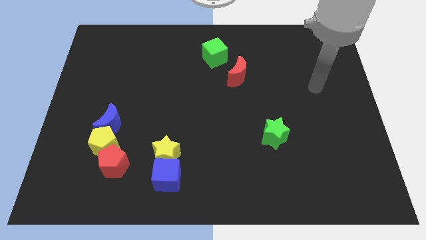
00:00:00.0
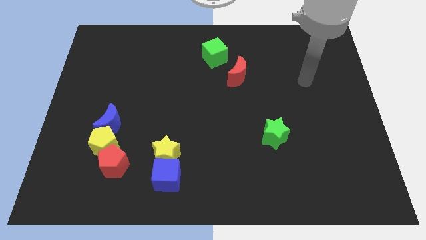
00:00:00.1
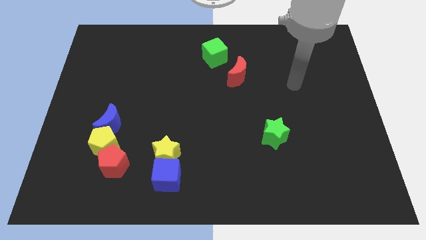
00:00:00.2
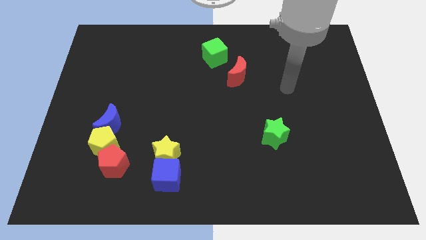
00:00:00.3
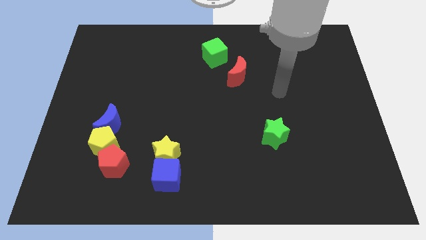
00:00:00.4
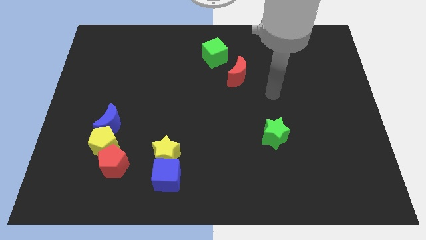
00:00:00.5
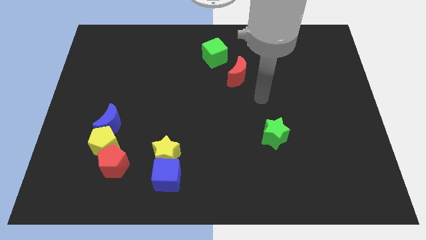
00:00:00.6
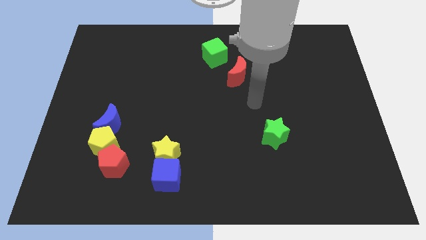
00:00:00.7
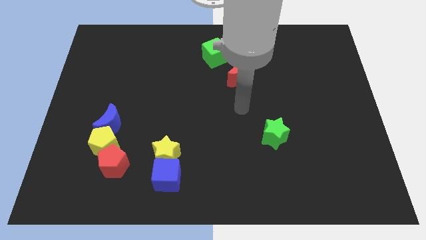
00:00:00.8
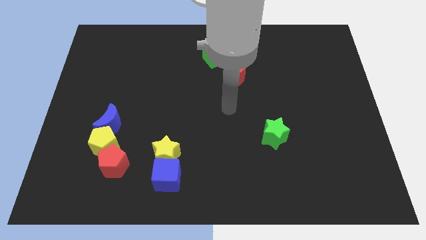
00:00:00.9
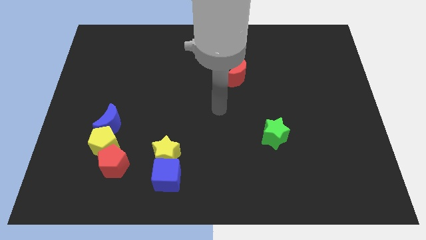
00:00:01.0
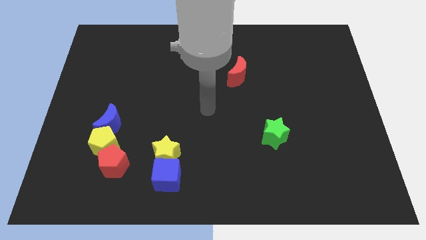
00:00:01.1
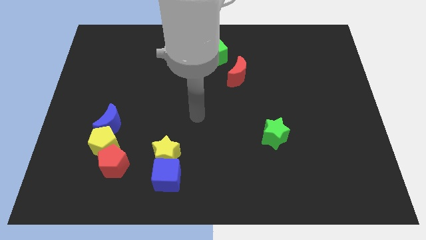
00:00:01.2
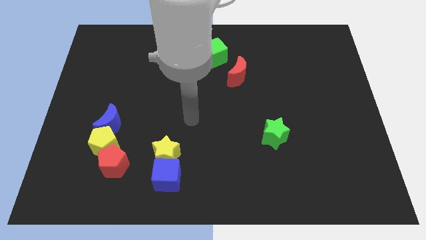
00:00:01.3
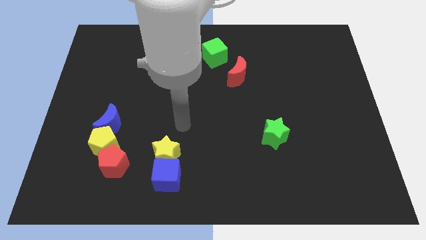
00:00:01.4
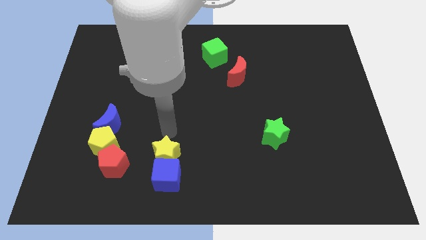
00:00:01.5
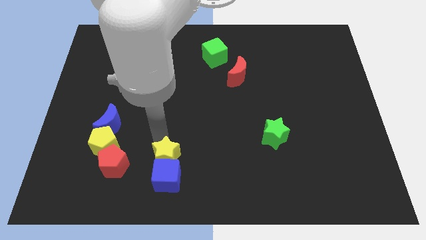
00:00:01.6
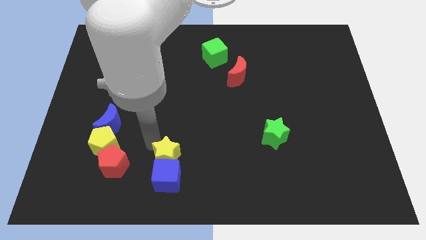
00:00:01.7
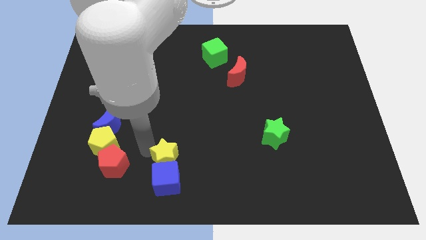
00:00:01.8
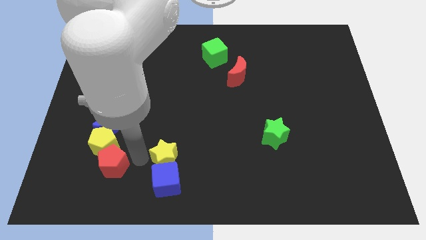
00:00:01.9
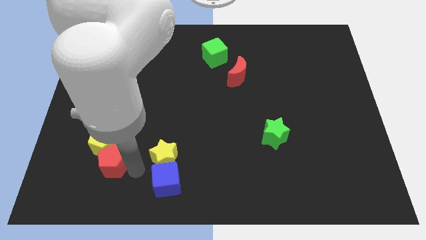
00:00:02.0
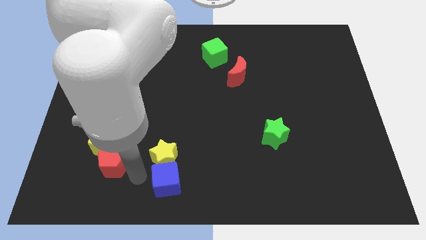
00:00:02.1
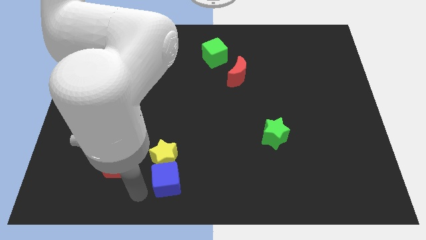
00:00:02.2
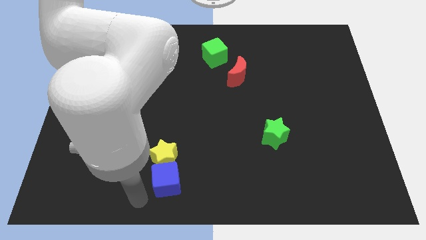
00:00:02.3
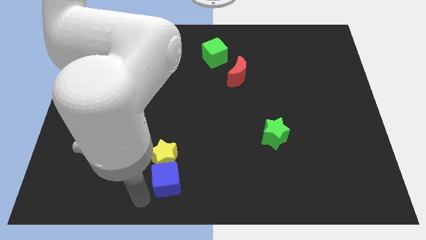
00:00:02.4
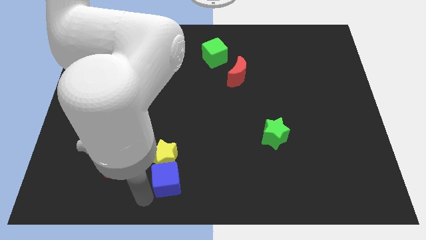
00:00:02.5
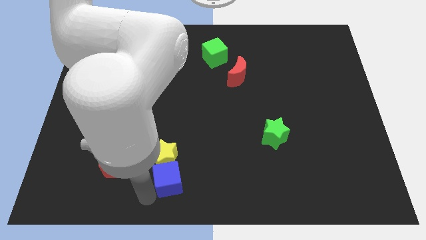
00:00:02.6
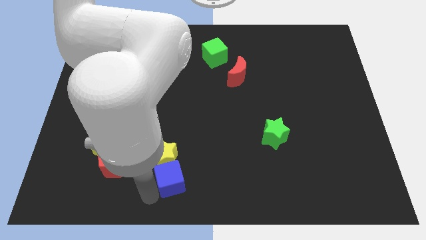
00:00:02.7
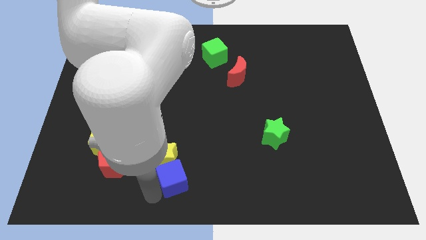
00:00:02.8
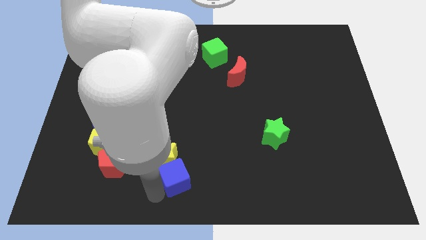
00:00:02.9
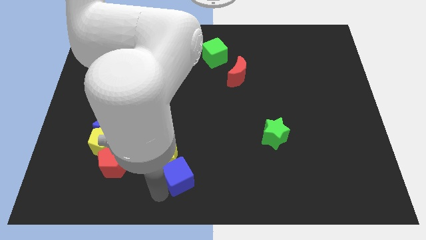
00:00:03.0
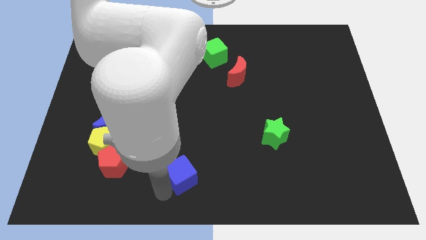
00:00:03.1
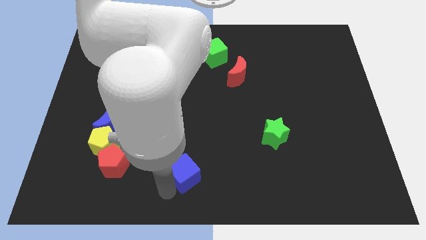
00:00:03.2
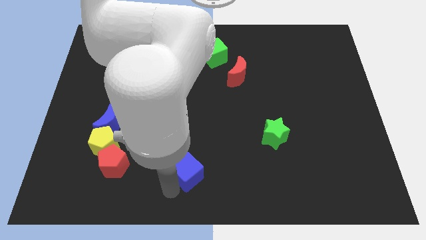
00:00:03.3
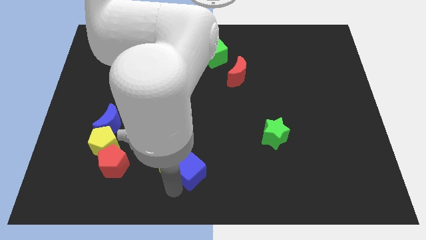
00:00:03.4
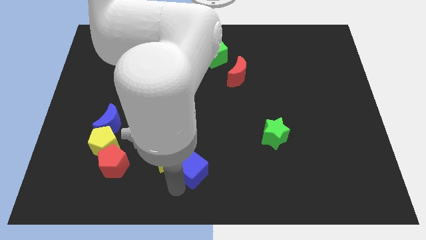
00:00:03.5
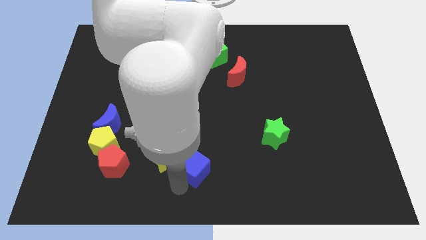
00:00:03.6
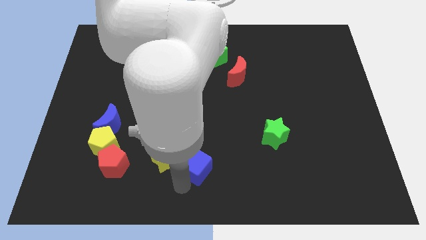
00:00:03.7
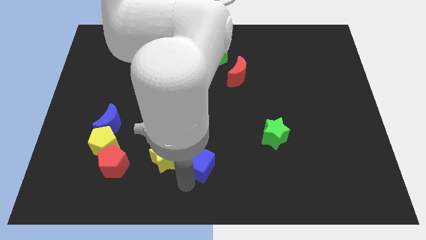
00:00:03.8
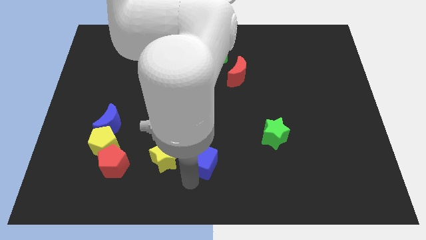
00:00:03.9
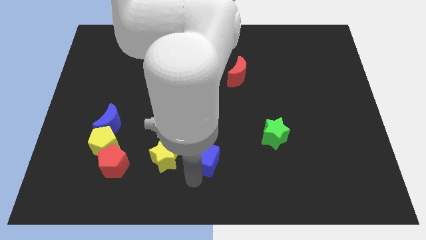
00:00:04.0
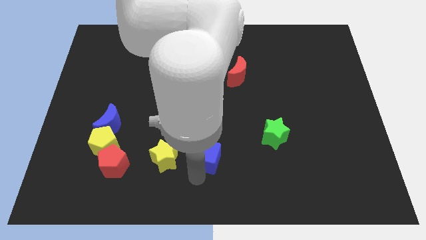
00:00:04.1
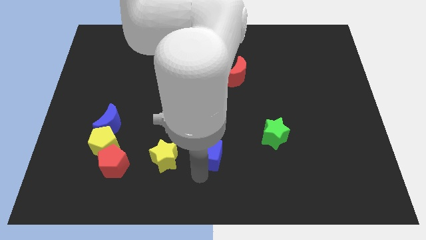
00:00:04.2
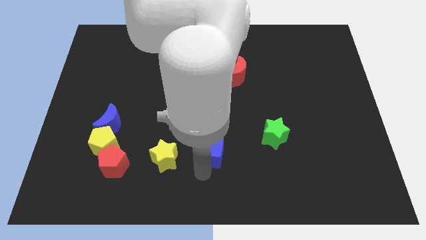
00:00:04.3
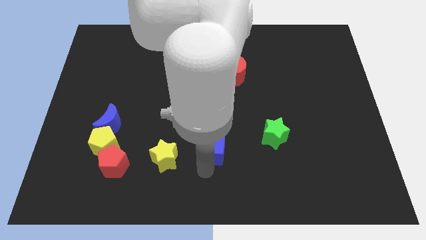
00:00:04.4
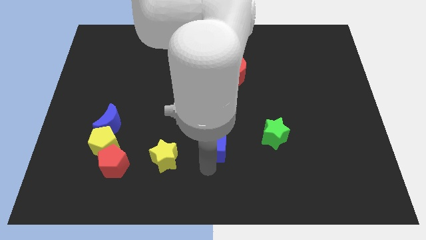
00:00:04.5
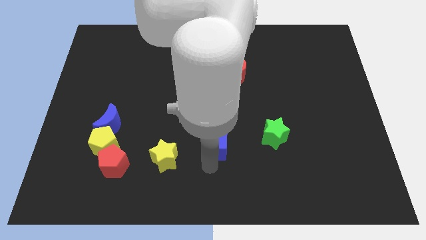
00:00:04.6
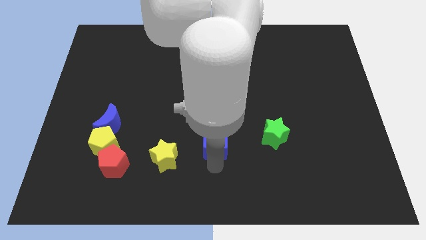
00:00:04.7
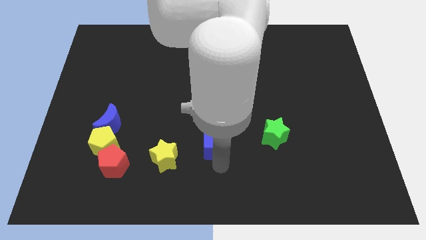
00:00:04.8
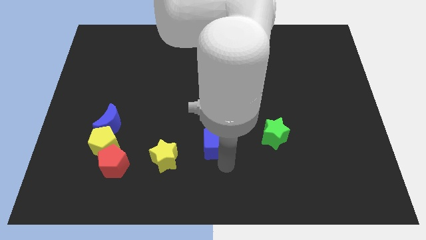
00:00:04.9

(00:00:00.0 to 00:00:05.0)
put the blue cube to the center of the board

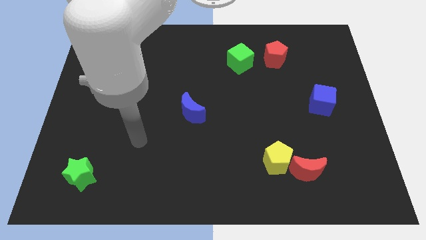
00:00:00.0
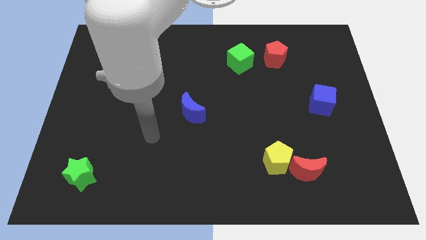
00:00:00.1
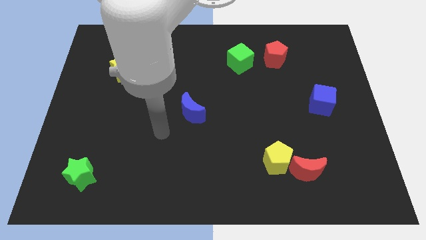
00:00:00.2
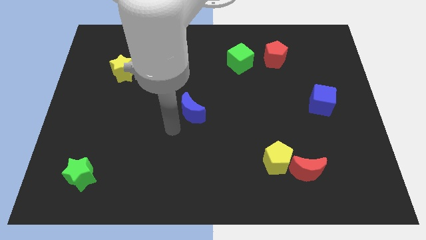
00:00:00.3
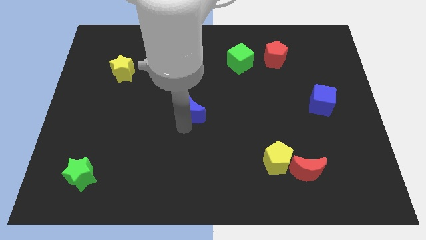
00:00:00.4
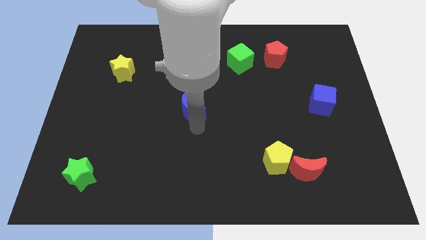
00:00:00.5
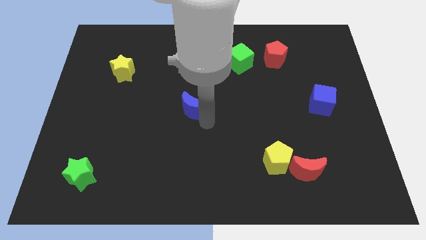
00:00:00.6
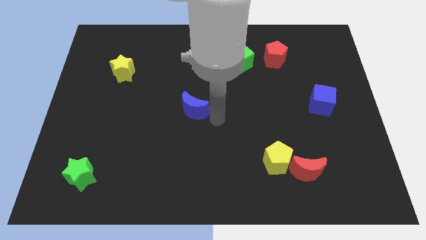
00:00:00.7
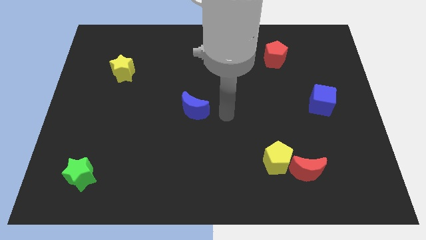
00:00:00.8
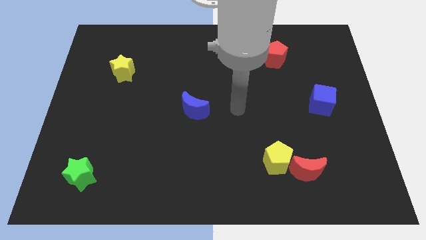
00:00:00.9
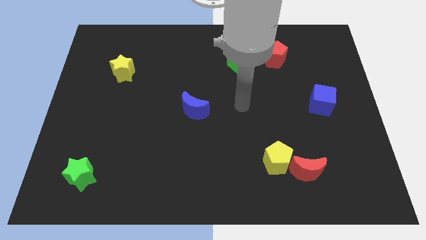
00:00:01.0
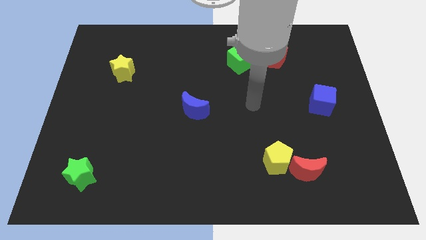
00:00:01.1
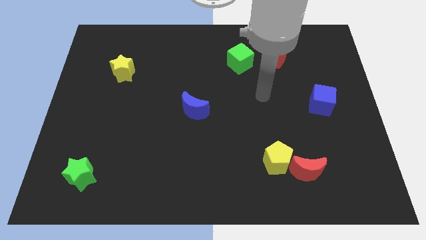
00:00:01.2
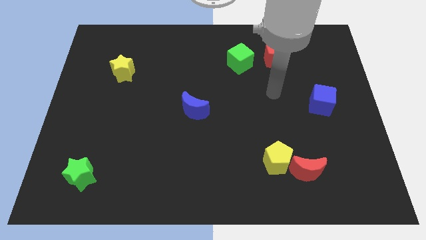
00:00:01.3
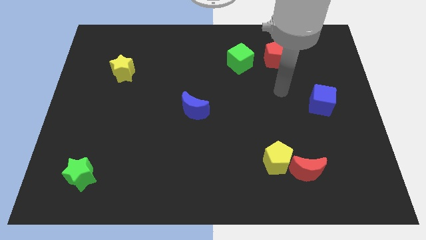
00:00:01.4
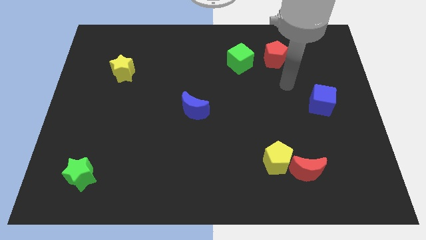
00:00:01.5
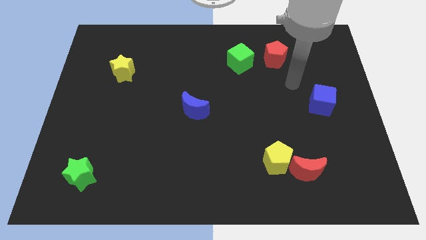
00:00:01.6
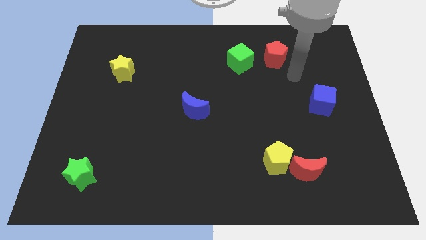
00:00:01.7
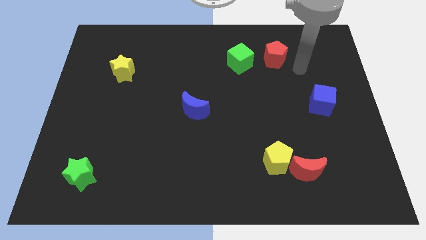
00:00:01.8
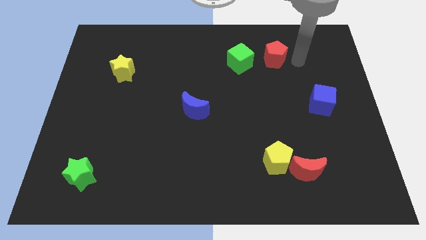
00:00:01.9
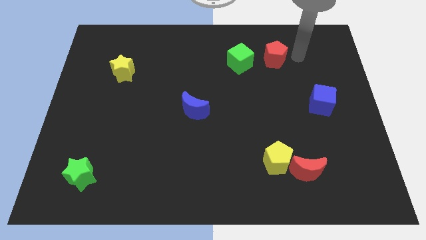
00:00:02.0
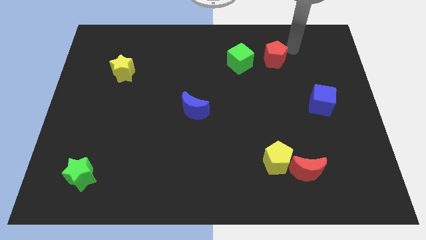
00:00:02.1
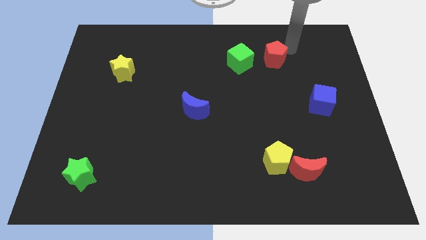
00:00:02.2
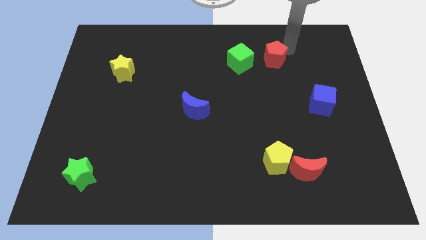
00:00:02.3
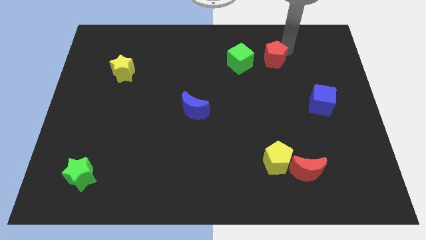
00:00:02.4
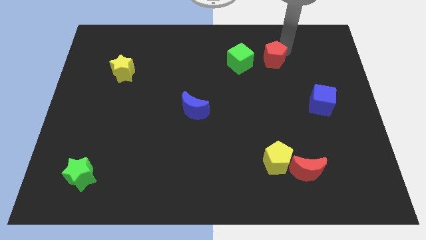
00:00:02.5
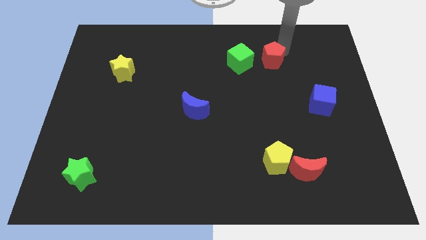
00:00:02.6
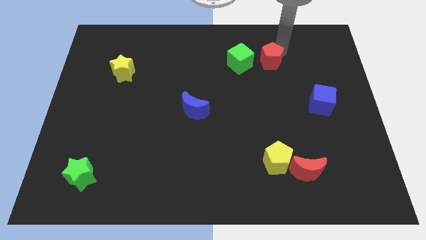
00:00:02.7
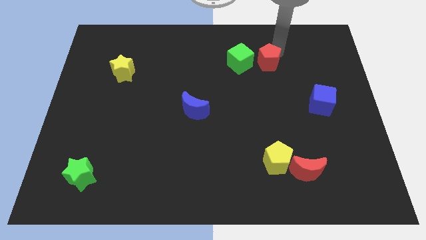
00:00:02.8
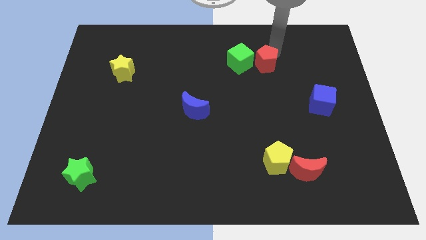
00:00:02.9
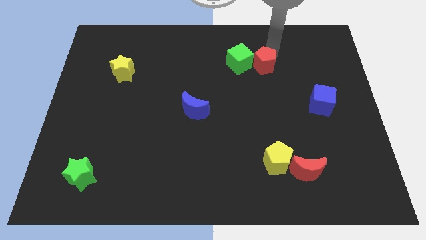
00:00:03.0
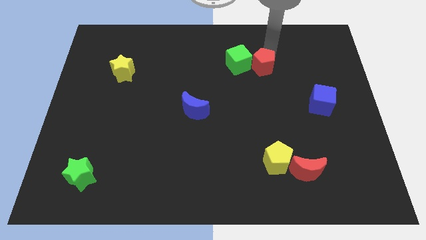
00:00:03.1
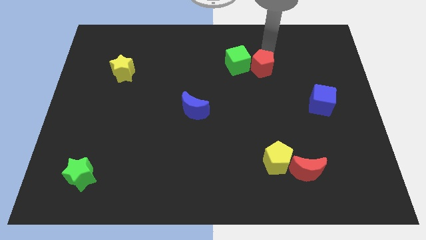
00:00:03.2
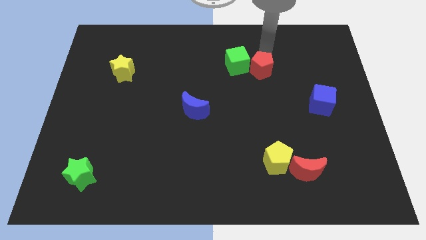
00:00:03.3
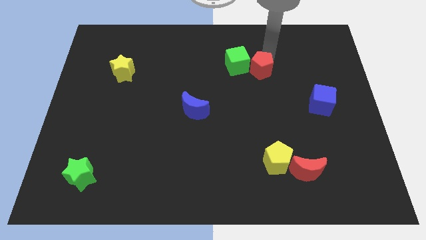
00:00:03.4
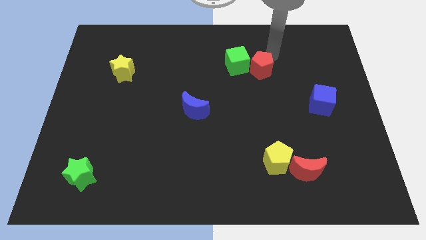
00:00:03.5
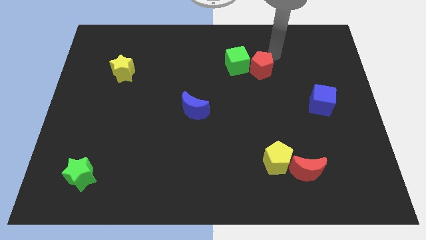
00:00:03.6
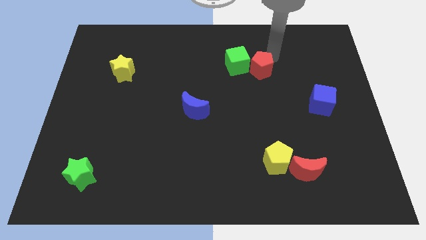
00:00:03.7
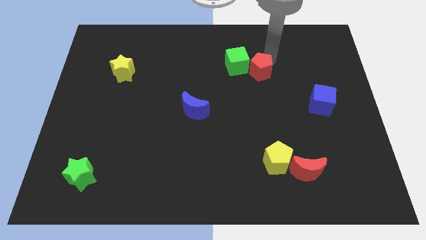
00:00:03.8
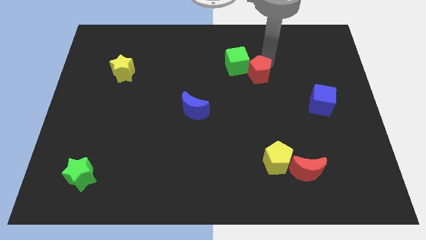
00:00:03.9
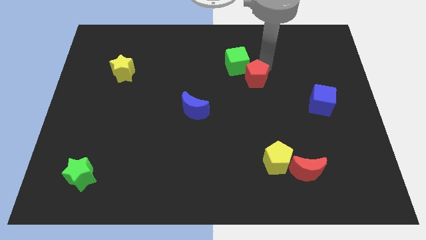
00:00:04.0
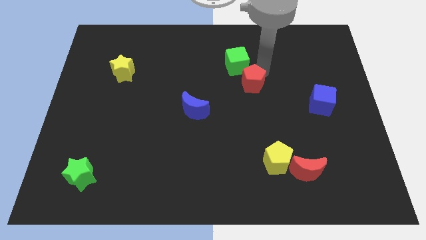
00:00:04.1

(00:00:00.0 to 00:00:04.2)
put the red pentagon to the middle of the board
